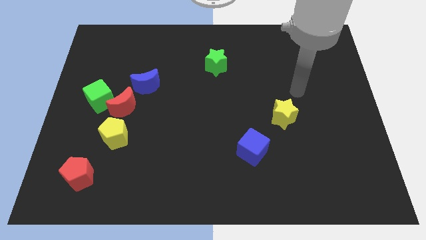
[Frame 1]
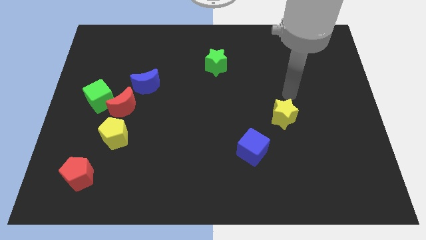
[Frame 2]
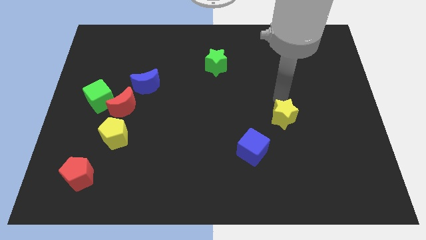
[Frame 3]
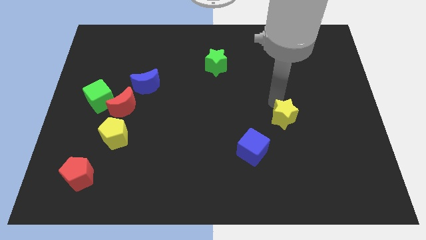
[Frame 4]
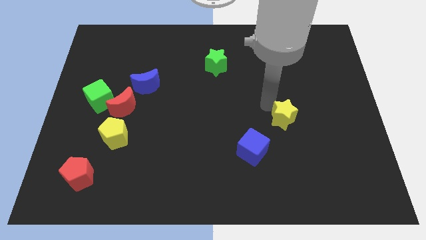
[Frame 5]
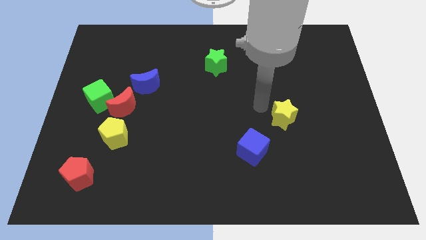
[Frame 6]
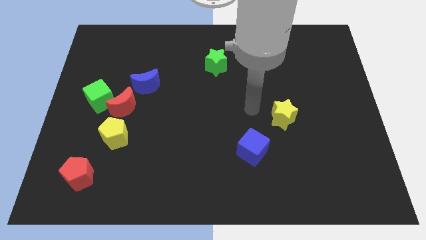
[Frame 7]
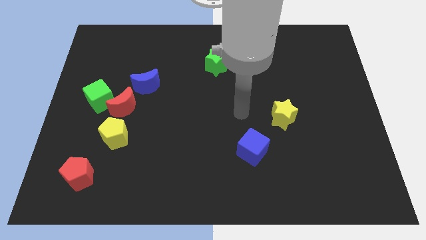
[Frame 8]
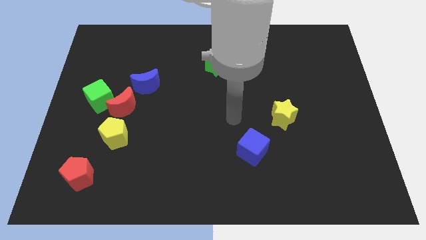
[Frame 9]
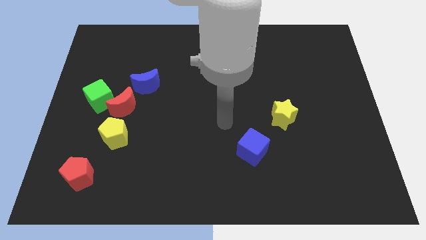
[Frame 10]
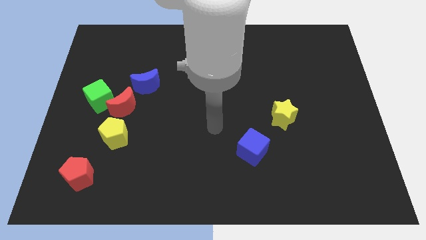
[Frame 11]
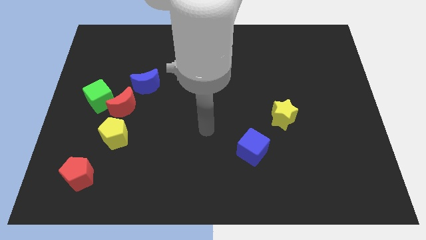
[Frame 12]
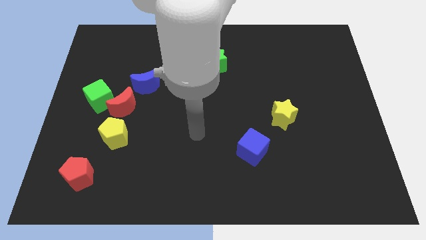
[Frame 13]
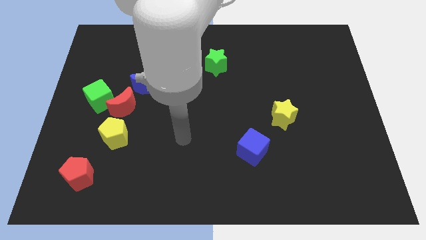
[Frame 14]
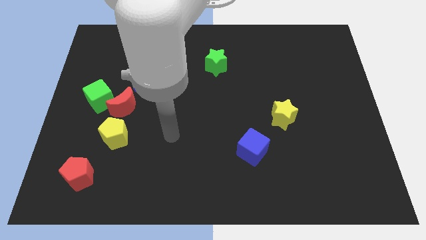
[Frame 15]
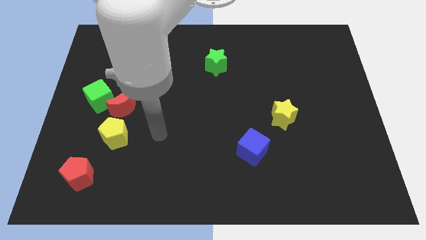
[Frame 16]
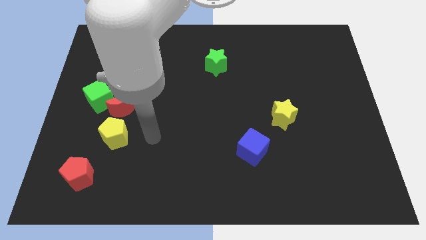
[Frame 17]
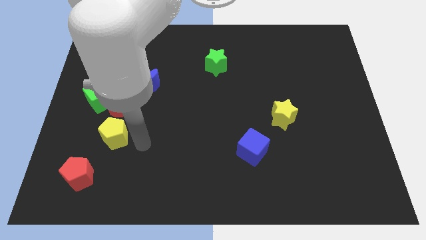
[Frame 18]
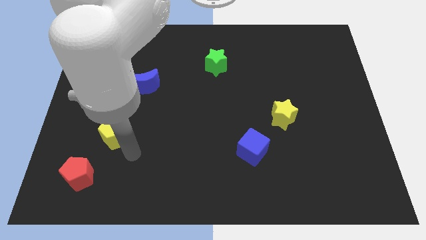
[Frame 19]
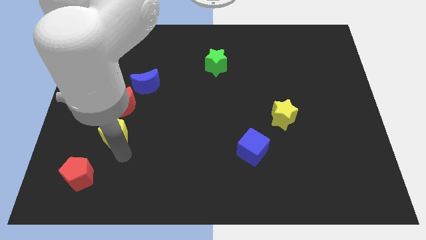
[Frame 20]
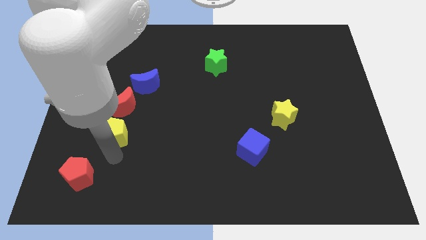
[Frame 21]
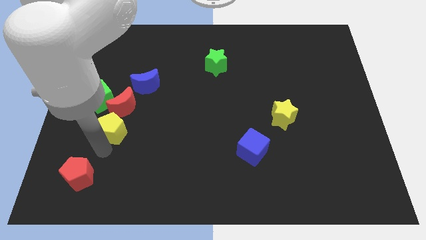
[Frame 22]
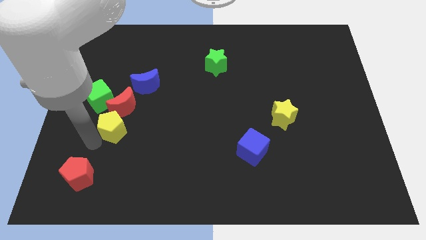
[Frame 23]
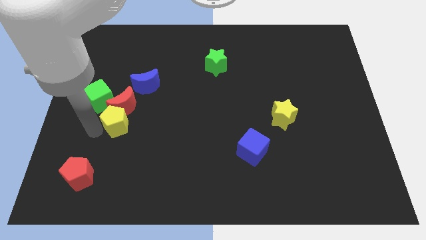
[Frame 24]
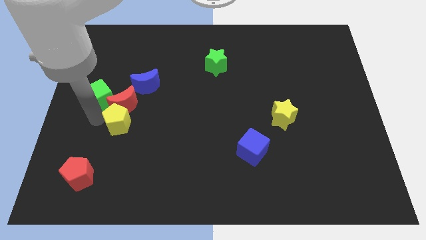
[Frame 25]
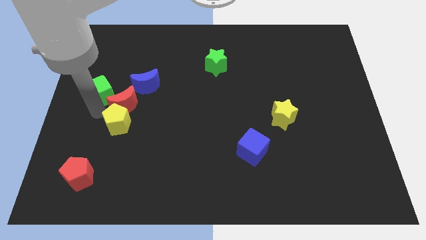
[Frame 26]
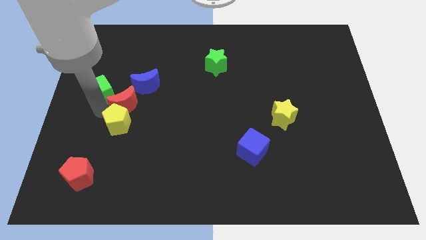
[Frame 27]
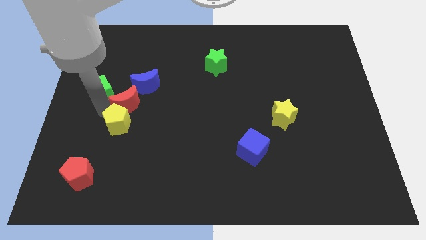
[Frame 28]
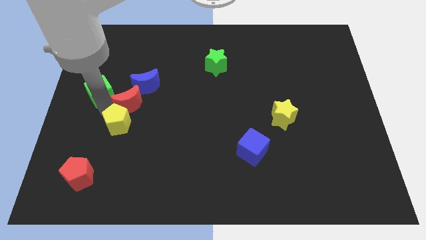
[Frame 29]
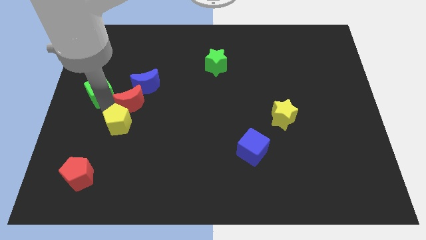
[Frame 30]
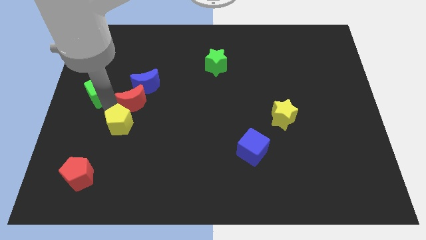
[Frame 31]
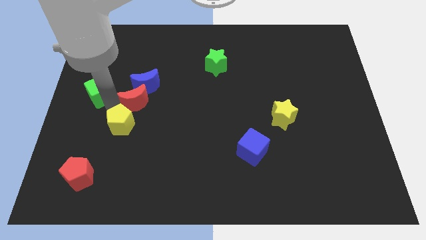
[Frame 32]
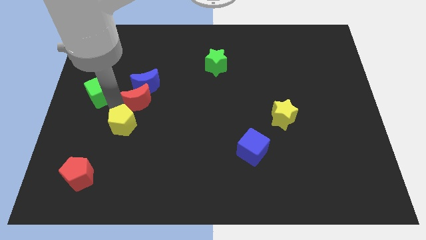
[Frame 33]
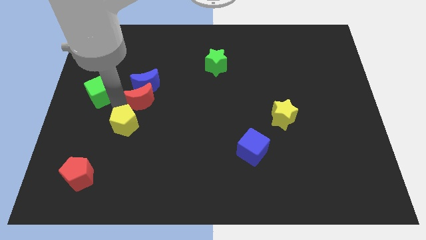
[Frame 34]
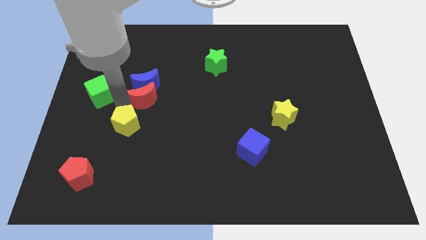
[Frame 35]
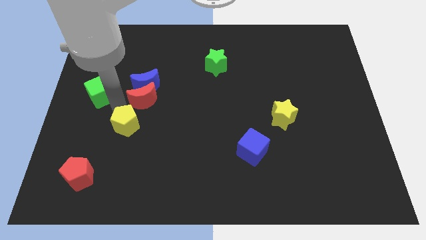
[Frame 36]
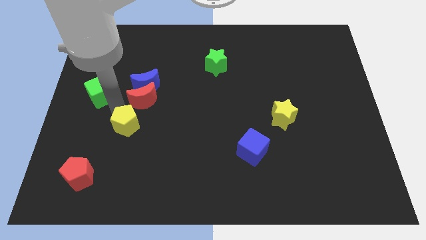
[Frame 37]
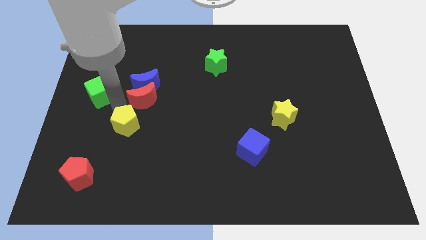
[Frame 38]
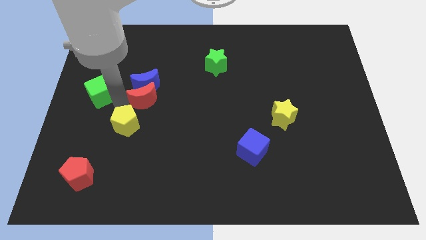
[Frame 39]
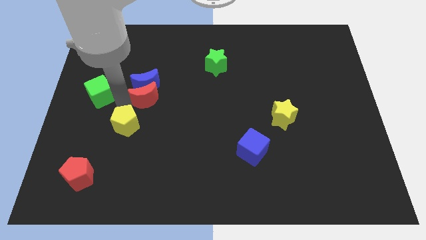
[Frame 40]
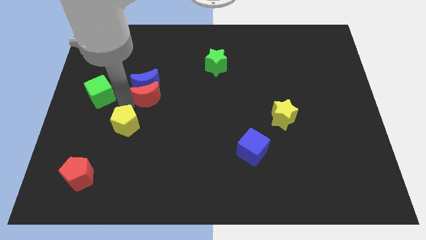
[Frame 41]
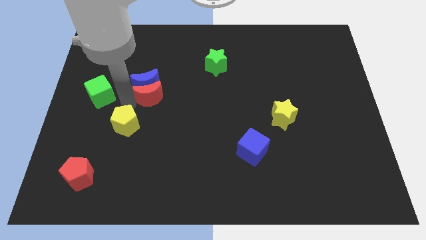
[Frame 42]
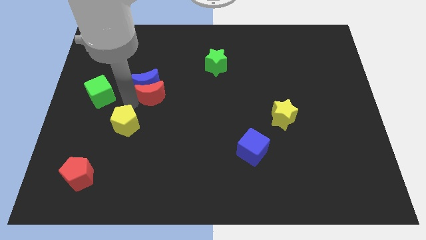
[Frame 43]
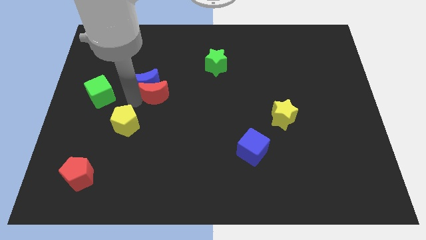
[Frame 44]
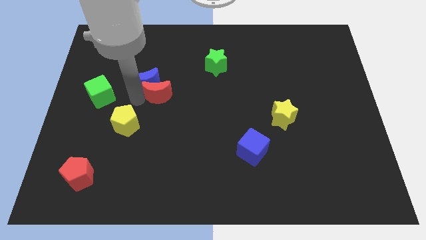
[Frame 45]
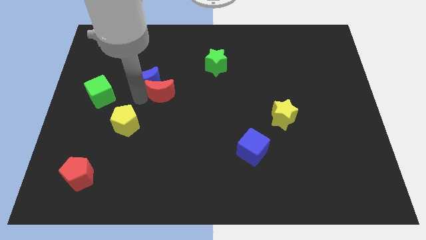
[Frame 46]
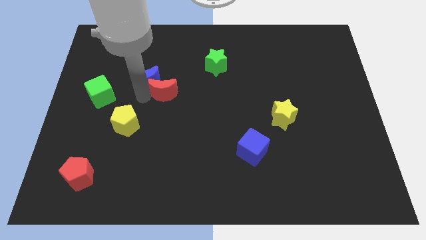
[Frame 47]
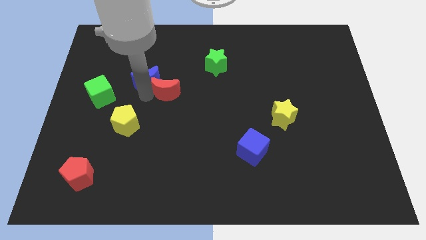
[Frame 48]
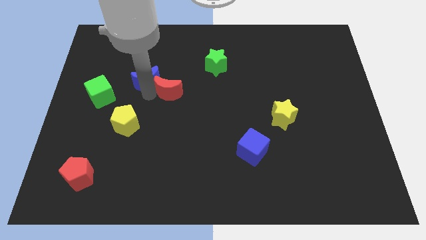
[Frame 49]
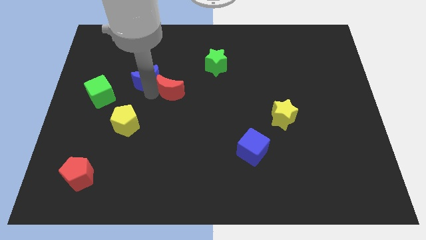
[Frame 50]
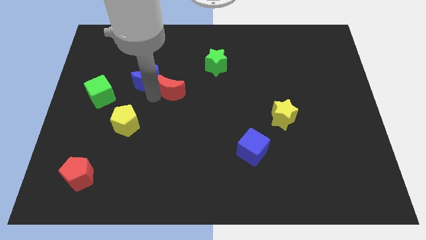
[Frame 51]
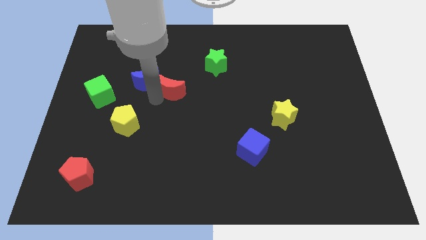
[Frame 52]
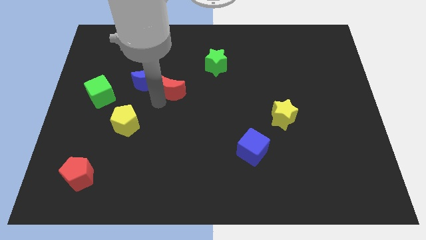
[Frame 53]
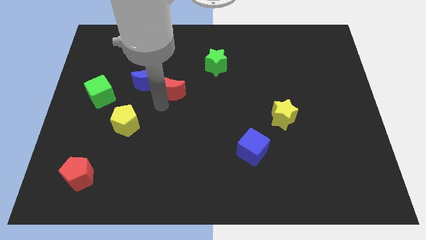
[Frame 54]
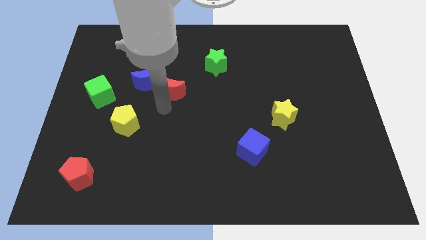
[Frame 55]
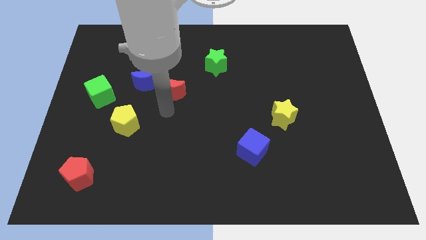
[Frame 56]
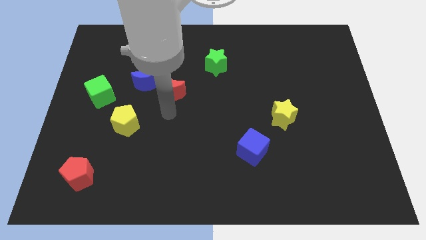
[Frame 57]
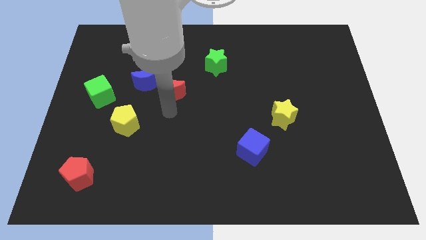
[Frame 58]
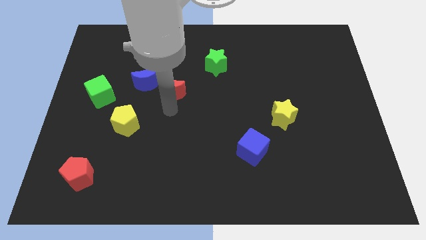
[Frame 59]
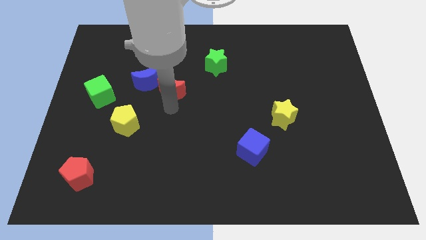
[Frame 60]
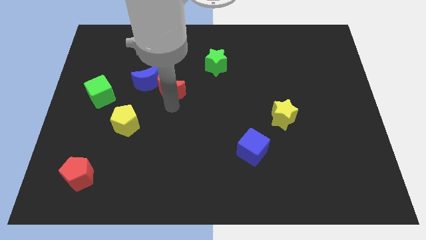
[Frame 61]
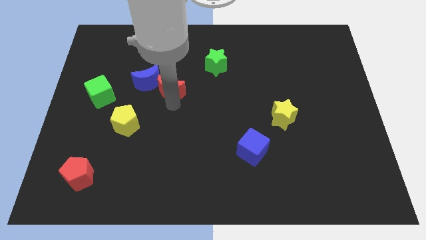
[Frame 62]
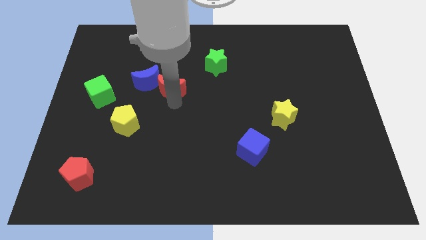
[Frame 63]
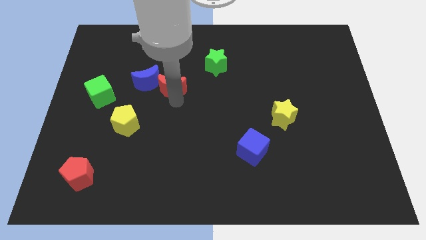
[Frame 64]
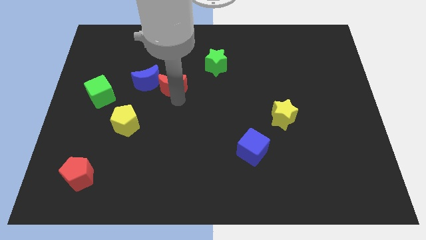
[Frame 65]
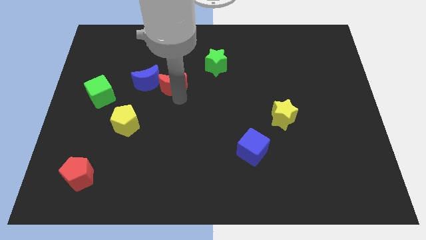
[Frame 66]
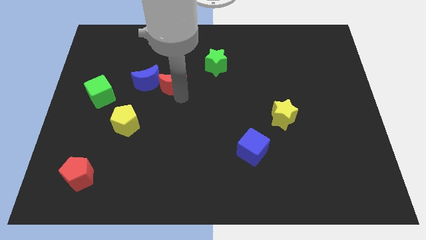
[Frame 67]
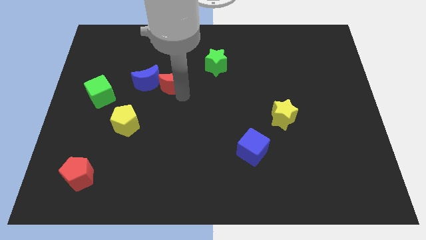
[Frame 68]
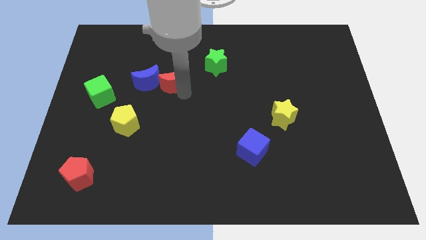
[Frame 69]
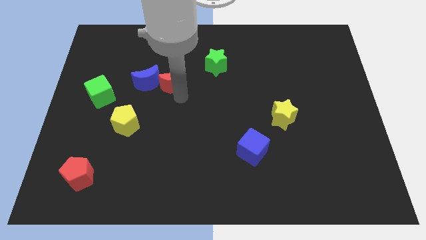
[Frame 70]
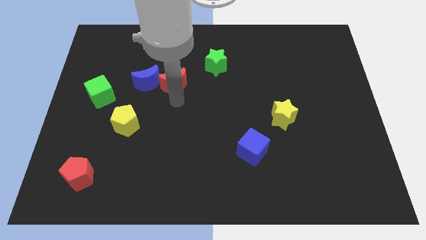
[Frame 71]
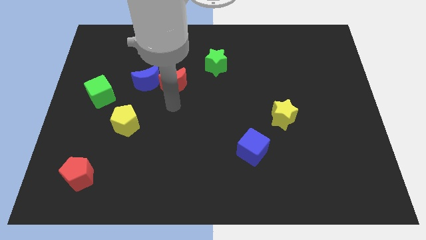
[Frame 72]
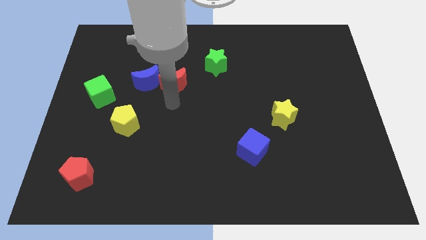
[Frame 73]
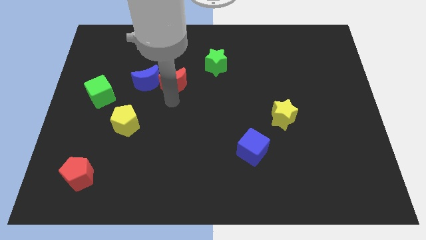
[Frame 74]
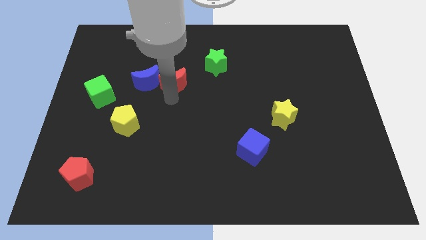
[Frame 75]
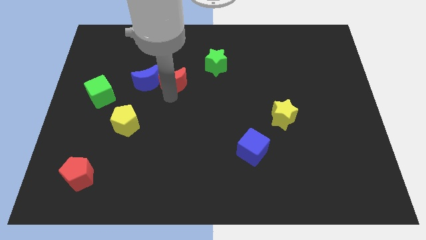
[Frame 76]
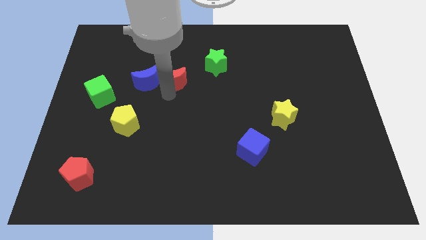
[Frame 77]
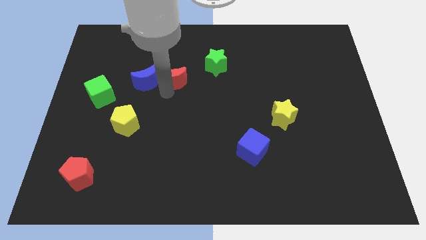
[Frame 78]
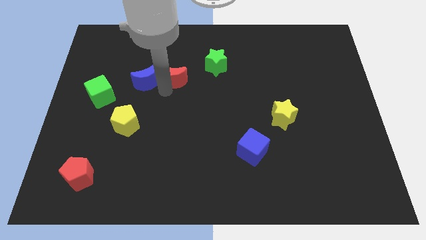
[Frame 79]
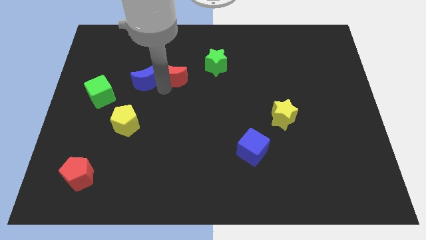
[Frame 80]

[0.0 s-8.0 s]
put the red moon left of the green star

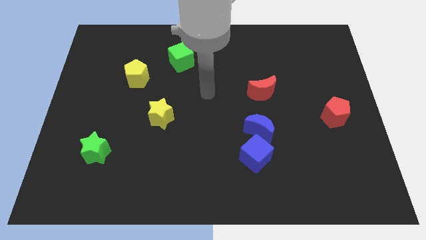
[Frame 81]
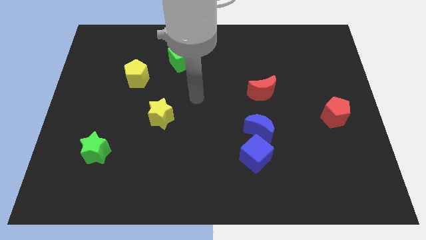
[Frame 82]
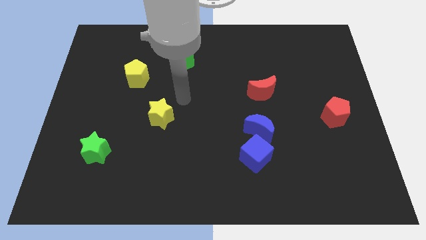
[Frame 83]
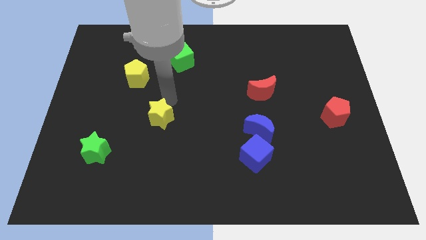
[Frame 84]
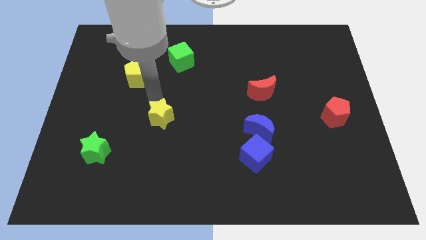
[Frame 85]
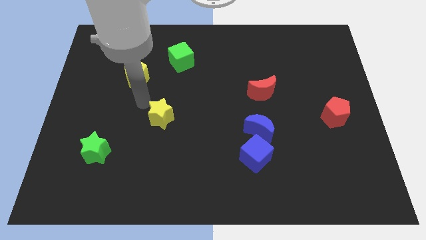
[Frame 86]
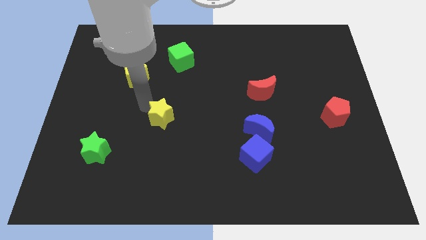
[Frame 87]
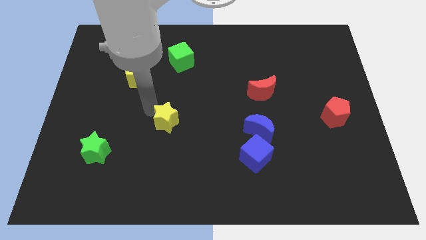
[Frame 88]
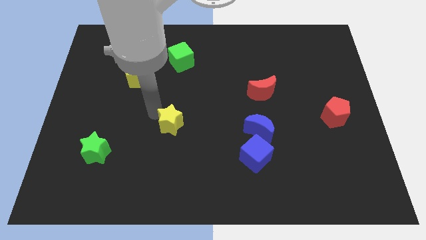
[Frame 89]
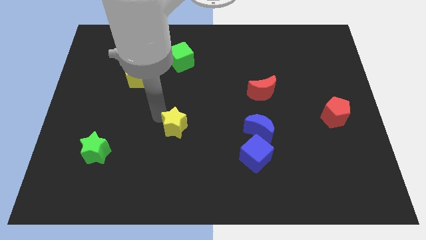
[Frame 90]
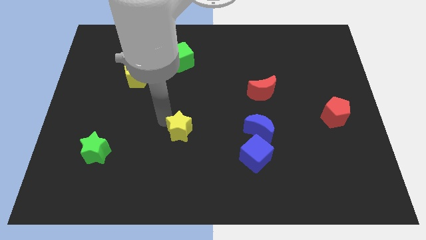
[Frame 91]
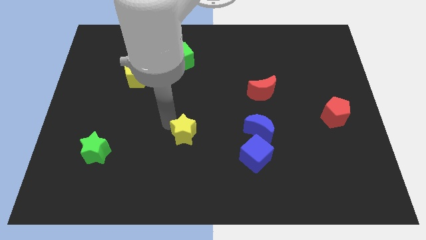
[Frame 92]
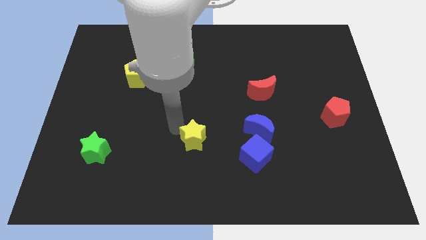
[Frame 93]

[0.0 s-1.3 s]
put the yellow star just left of the blue cube
